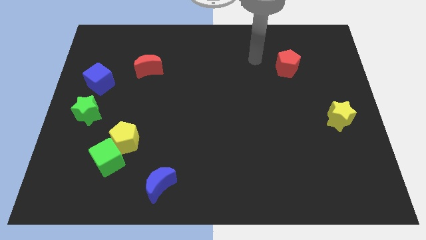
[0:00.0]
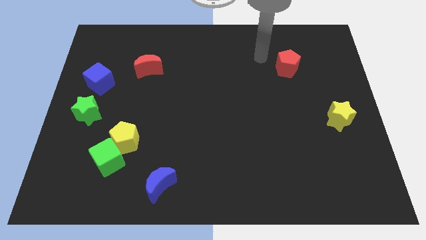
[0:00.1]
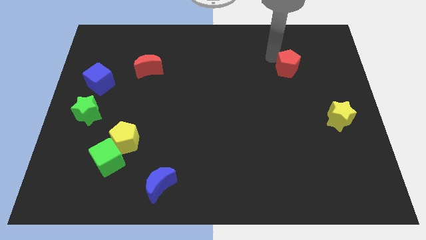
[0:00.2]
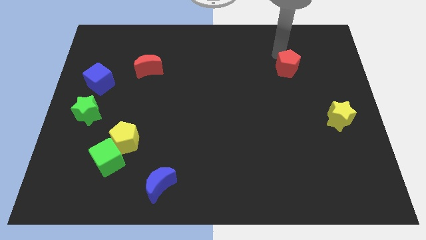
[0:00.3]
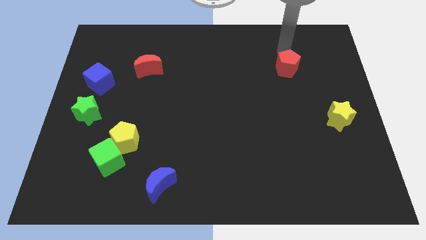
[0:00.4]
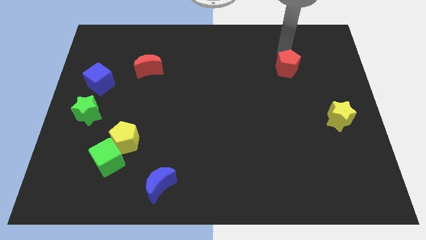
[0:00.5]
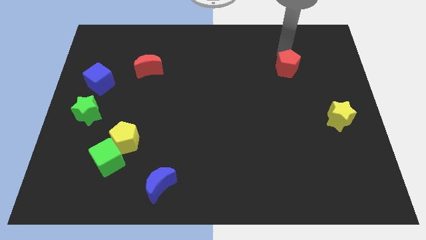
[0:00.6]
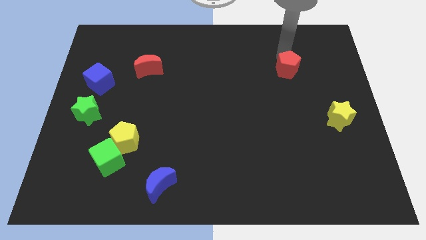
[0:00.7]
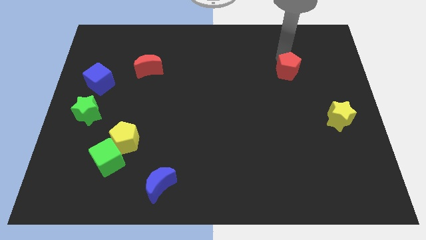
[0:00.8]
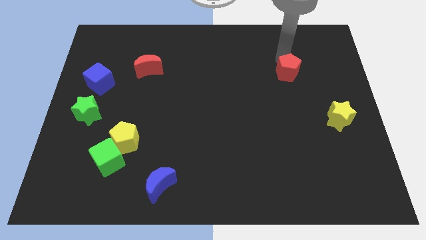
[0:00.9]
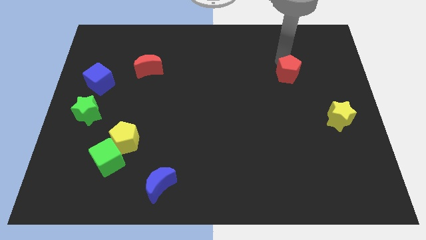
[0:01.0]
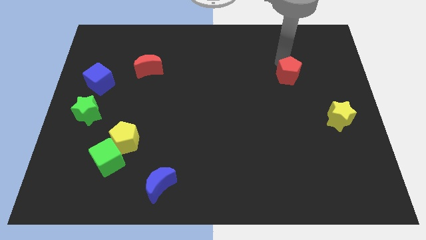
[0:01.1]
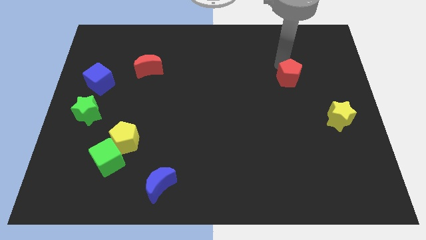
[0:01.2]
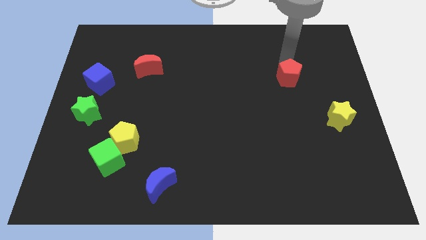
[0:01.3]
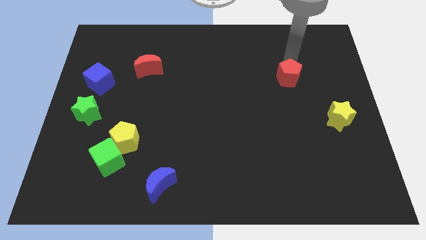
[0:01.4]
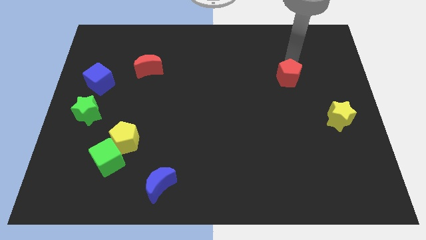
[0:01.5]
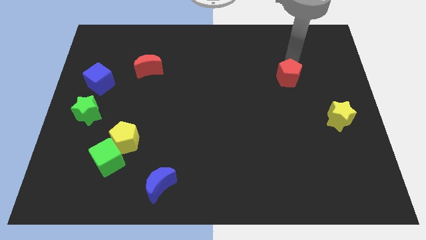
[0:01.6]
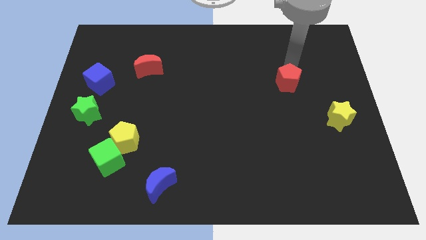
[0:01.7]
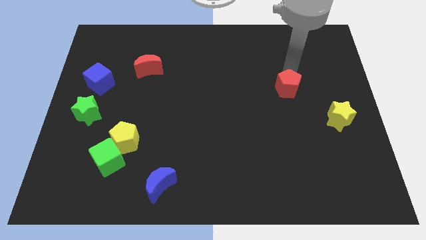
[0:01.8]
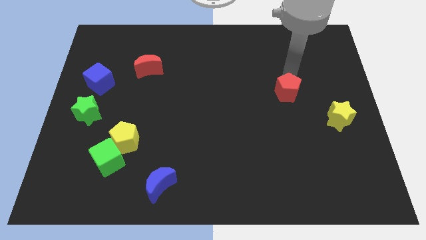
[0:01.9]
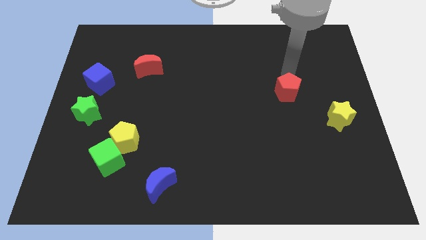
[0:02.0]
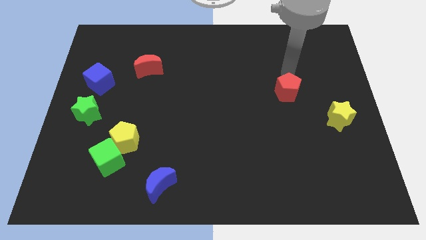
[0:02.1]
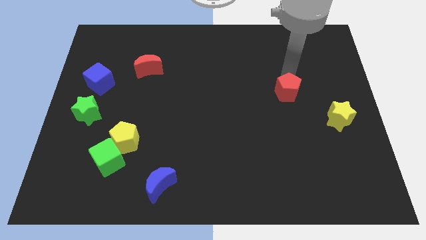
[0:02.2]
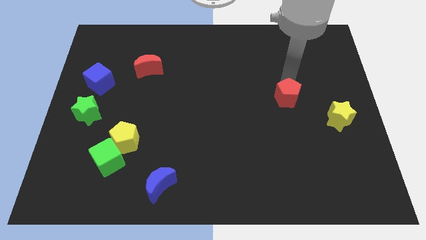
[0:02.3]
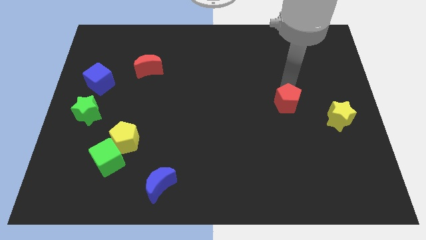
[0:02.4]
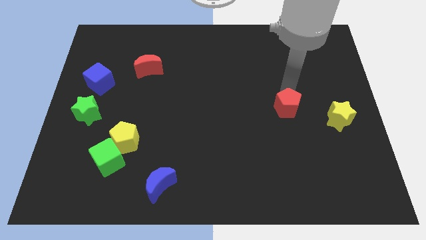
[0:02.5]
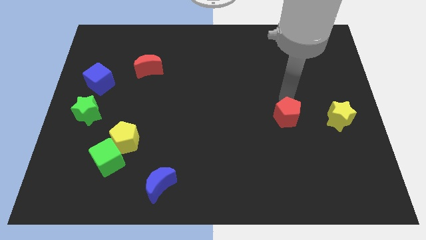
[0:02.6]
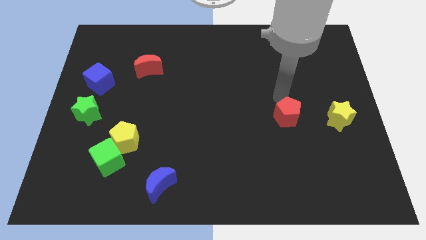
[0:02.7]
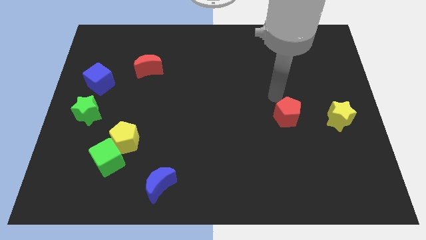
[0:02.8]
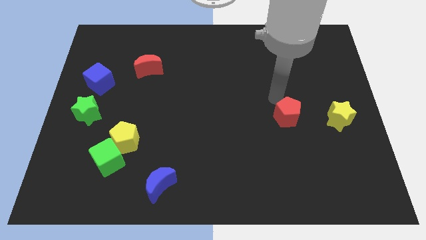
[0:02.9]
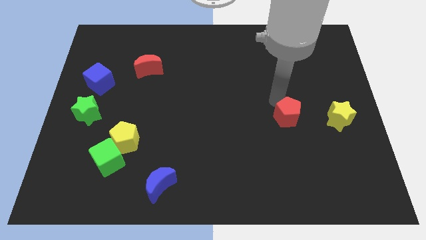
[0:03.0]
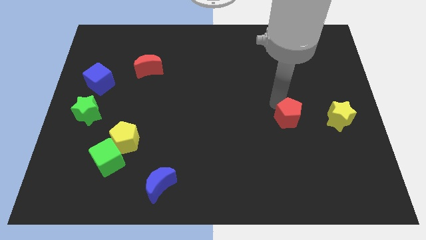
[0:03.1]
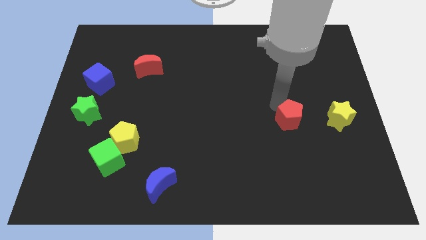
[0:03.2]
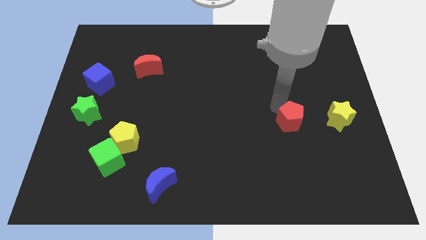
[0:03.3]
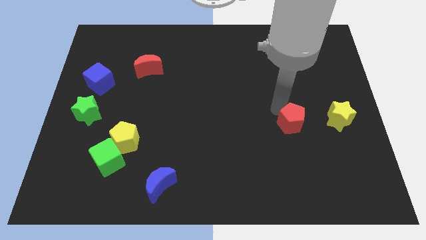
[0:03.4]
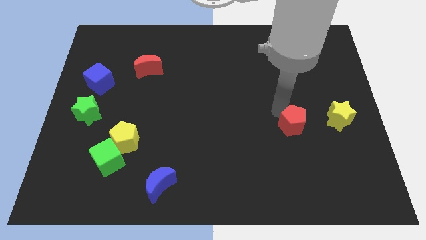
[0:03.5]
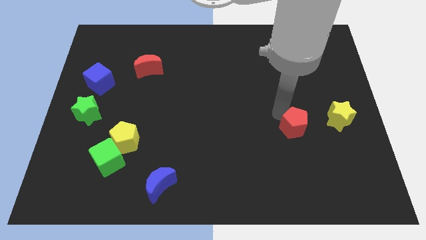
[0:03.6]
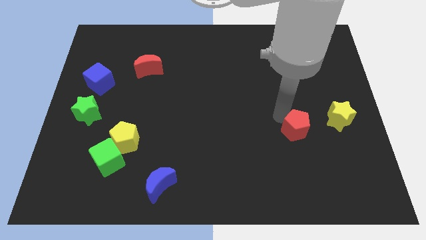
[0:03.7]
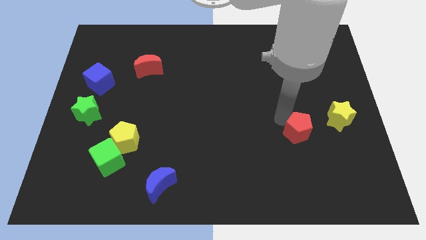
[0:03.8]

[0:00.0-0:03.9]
push the red pentagon downwards

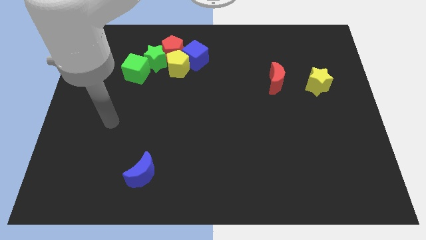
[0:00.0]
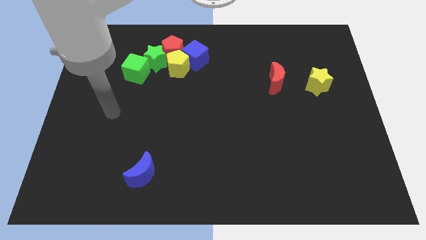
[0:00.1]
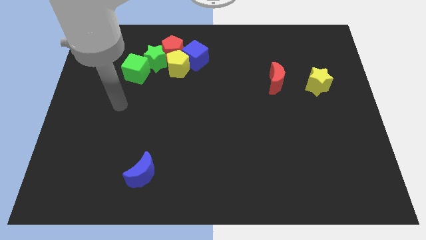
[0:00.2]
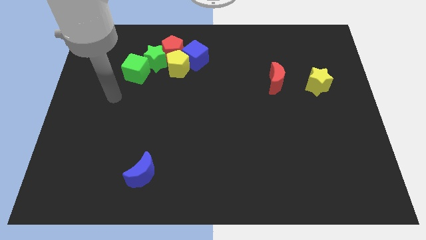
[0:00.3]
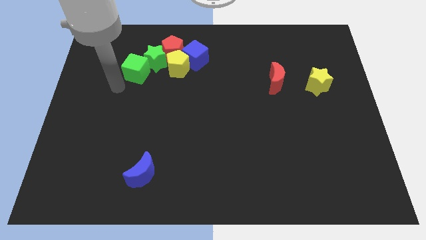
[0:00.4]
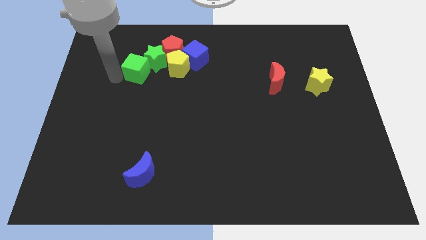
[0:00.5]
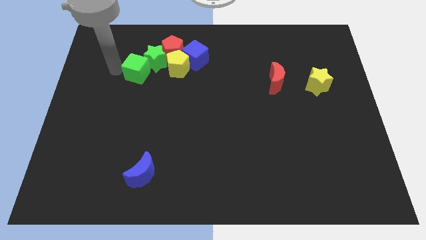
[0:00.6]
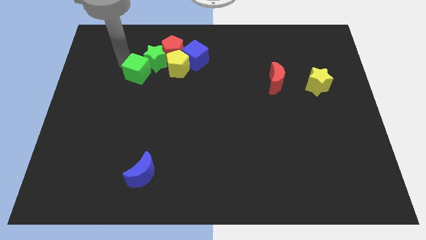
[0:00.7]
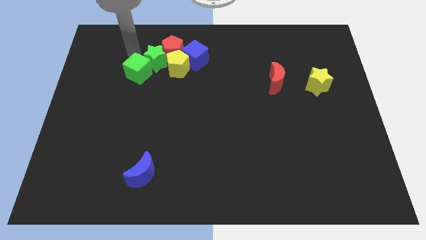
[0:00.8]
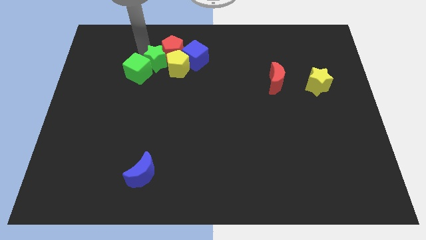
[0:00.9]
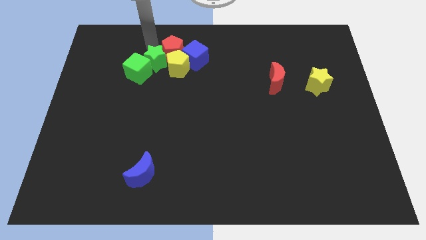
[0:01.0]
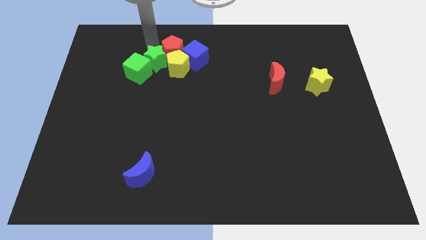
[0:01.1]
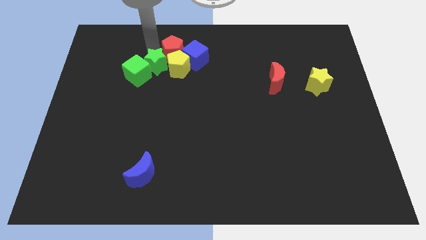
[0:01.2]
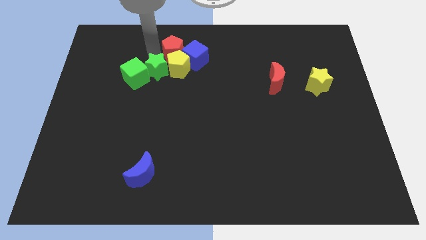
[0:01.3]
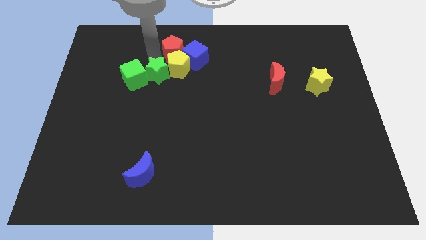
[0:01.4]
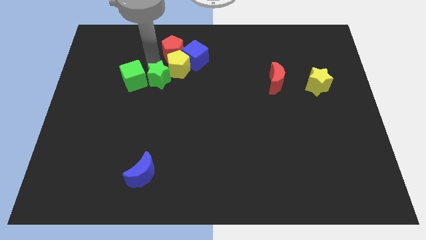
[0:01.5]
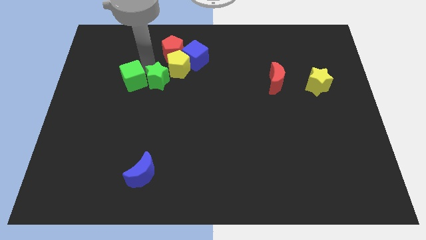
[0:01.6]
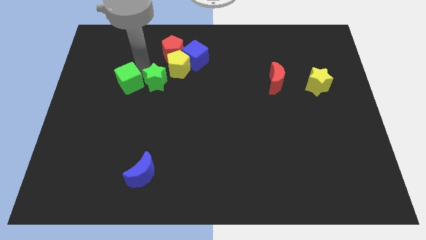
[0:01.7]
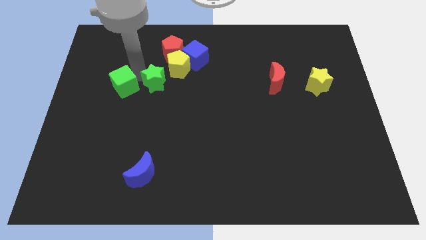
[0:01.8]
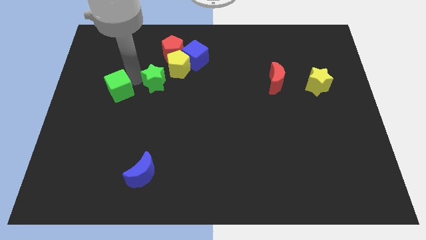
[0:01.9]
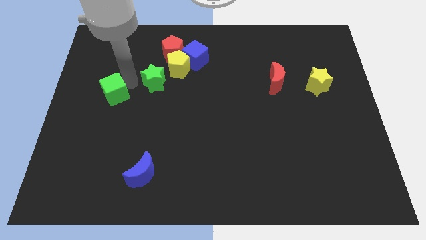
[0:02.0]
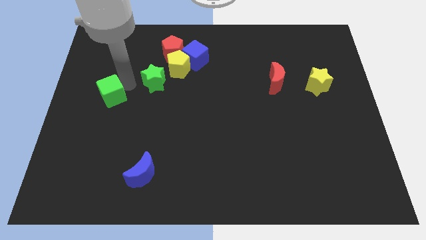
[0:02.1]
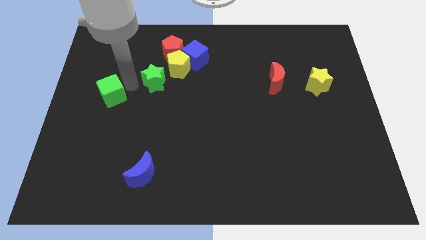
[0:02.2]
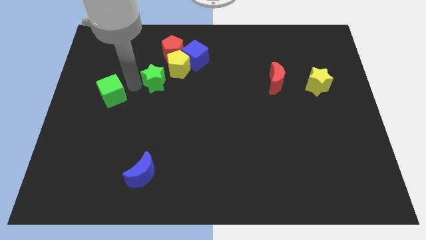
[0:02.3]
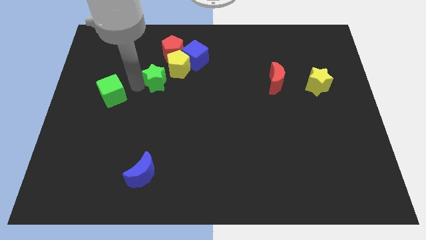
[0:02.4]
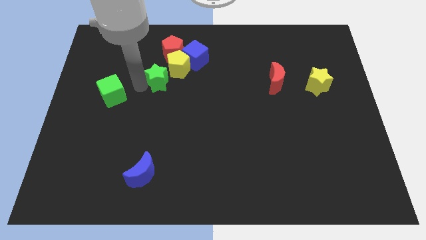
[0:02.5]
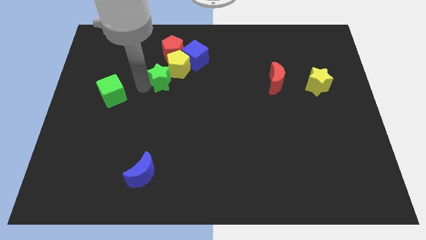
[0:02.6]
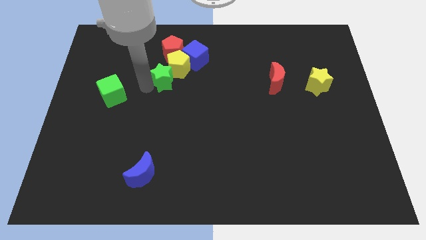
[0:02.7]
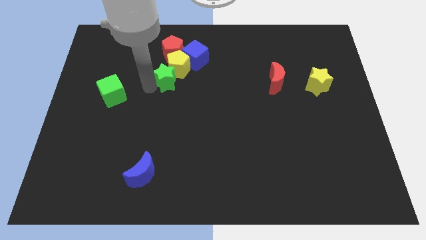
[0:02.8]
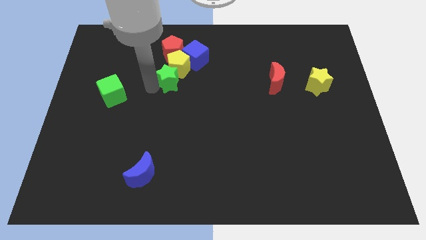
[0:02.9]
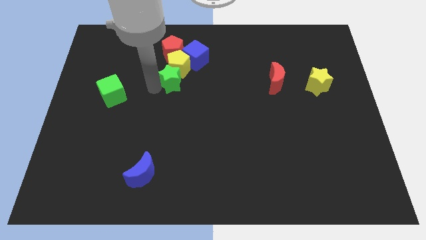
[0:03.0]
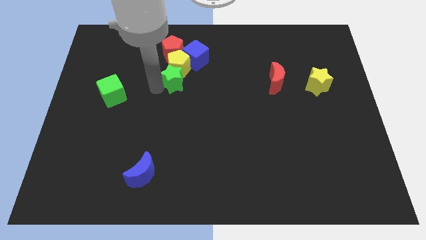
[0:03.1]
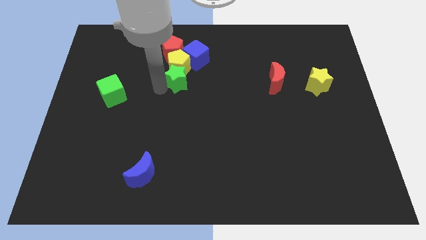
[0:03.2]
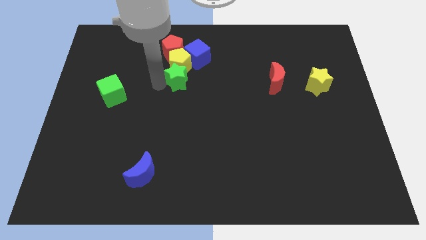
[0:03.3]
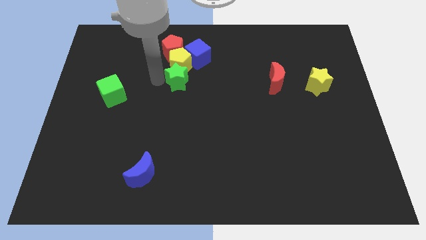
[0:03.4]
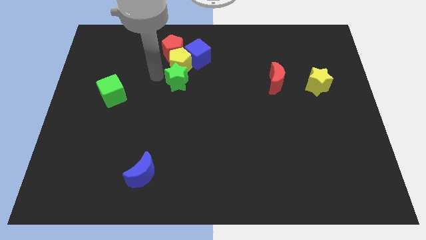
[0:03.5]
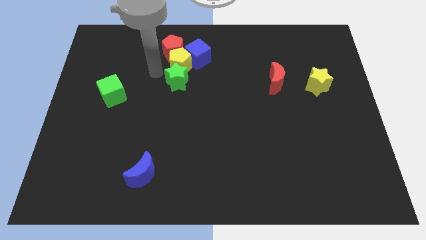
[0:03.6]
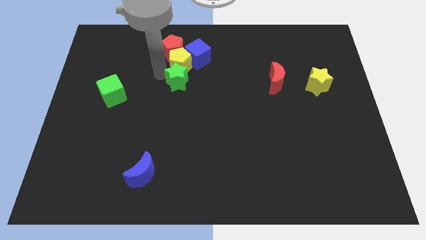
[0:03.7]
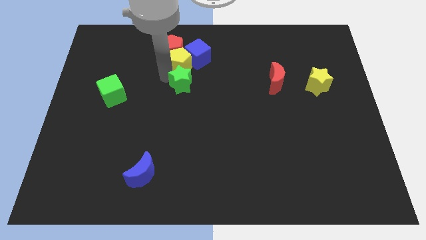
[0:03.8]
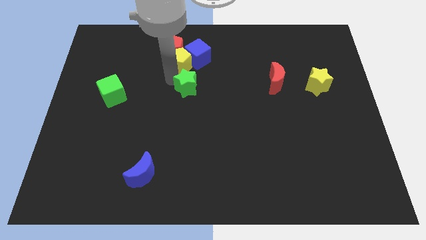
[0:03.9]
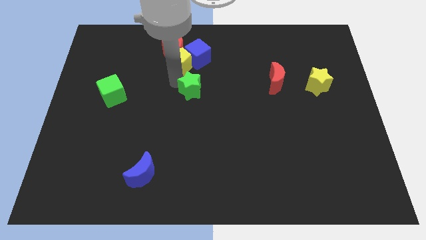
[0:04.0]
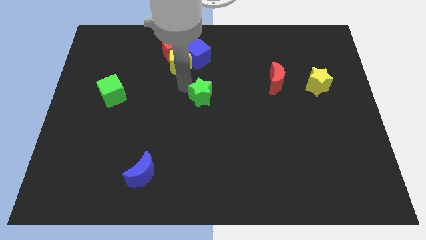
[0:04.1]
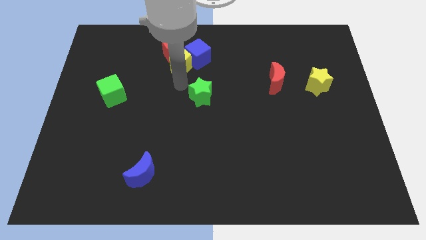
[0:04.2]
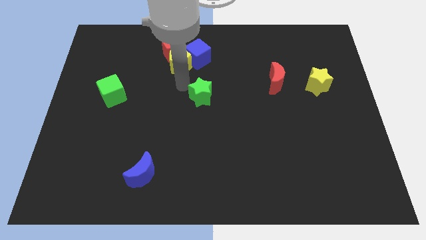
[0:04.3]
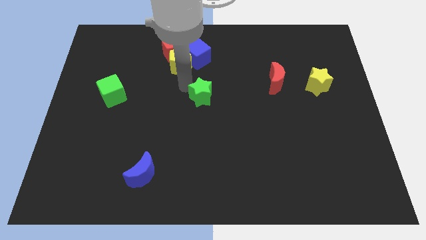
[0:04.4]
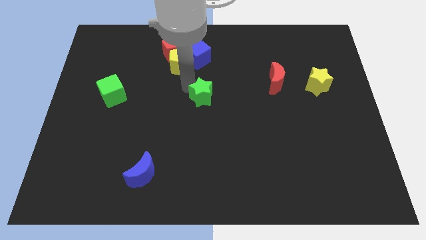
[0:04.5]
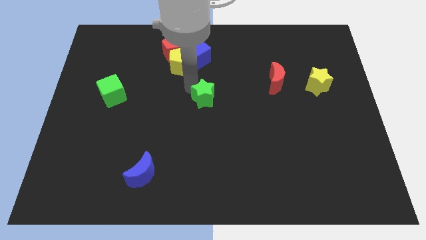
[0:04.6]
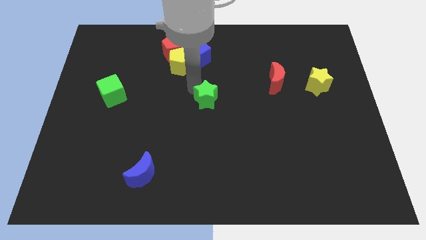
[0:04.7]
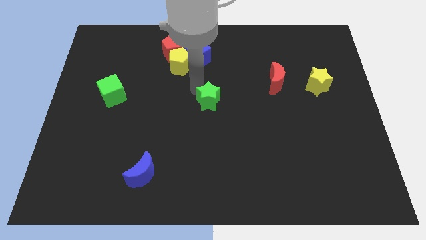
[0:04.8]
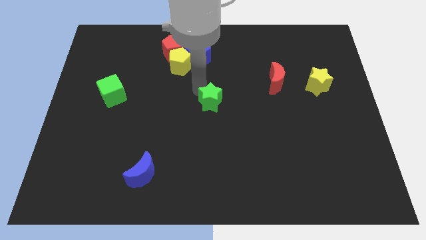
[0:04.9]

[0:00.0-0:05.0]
push the green star down and to the right
